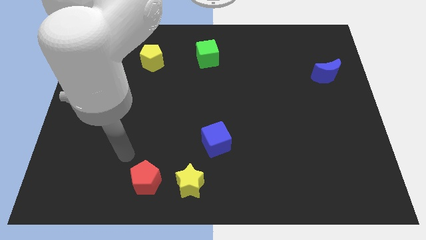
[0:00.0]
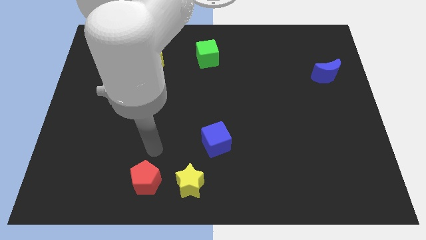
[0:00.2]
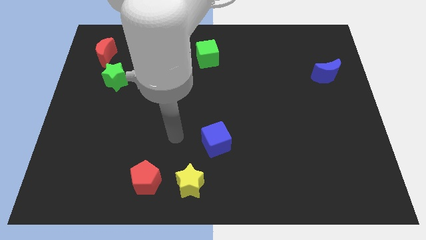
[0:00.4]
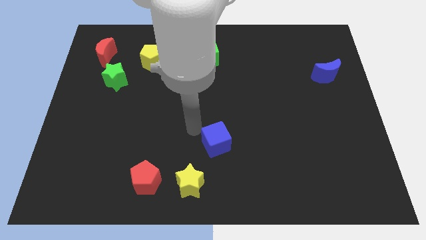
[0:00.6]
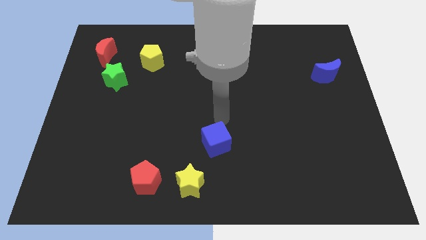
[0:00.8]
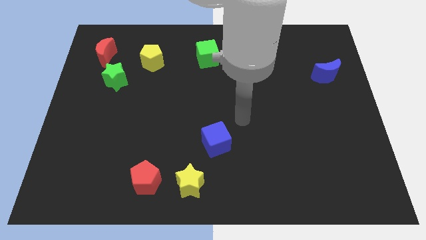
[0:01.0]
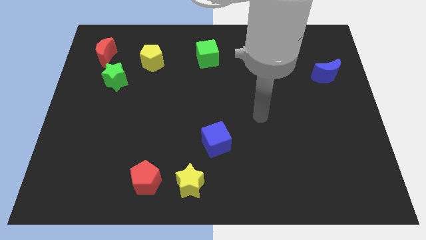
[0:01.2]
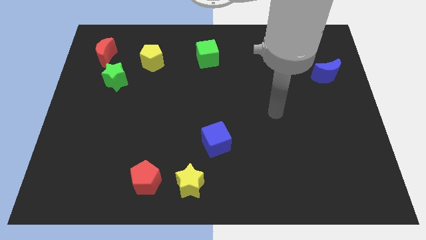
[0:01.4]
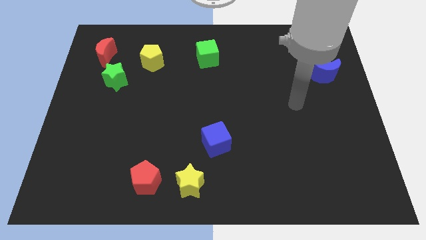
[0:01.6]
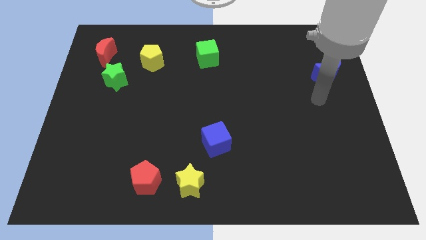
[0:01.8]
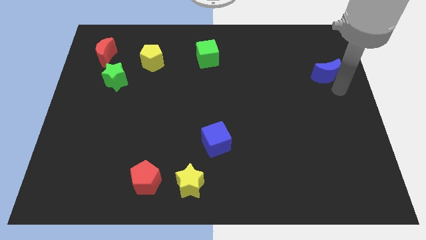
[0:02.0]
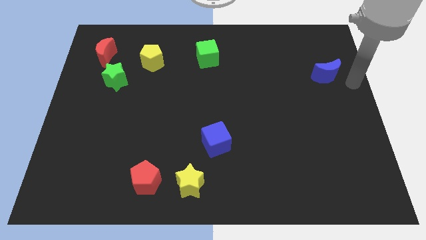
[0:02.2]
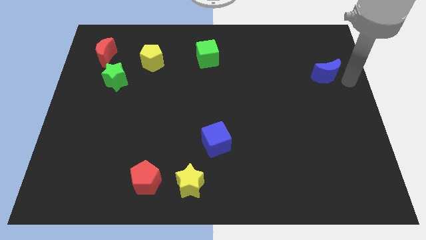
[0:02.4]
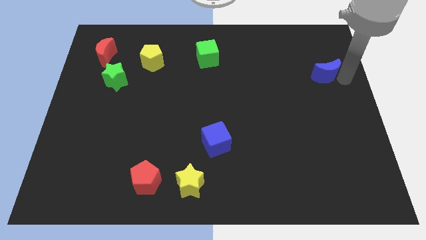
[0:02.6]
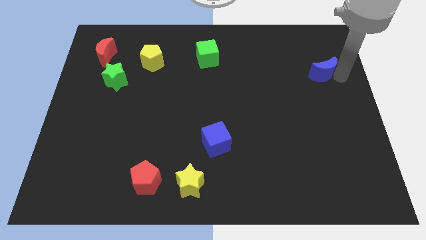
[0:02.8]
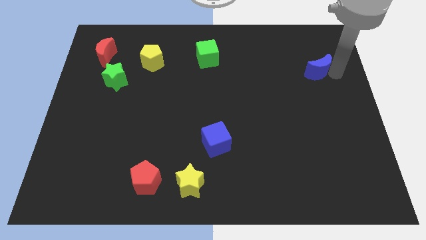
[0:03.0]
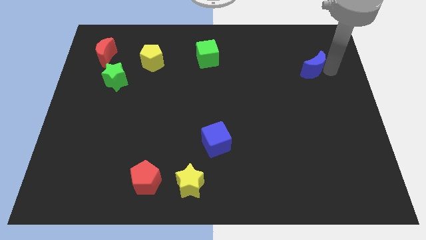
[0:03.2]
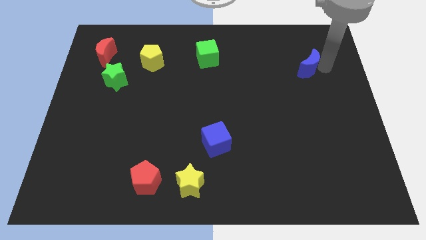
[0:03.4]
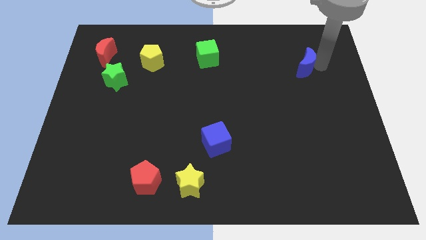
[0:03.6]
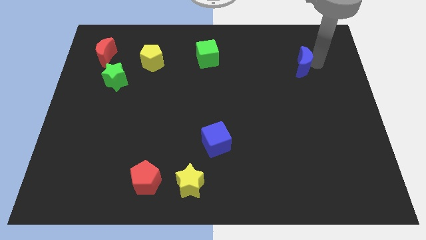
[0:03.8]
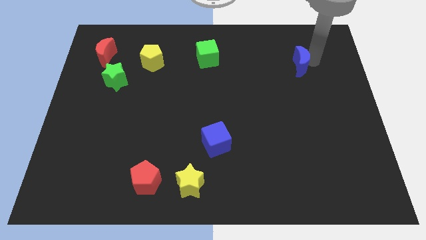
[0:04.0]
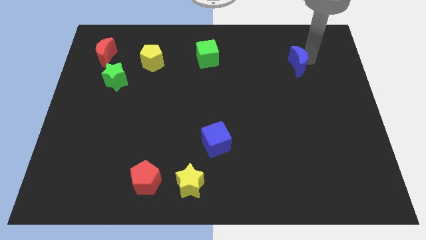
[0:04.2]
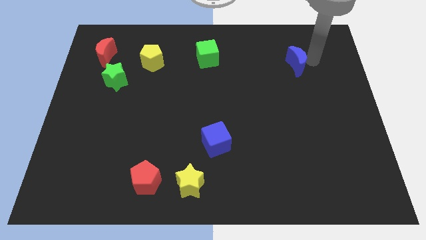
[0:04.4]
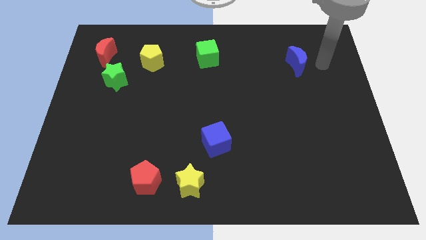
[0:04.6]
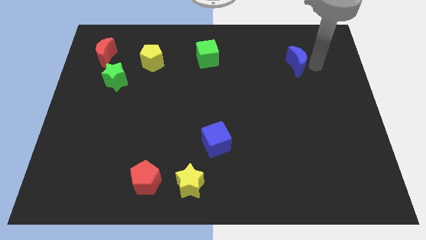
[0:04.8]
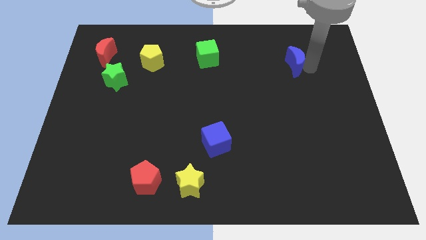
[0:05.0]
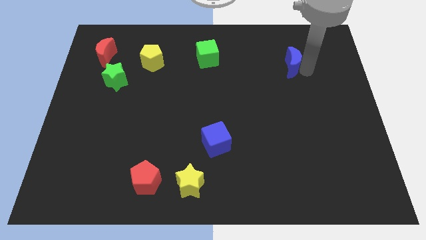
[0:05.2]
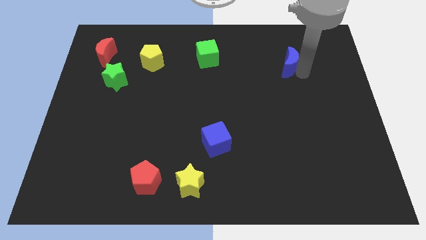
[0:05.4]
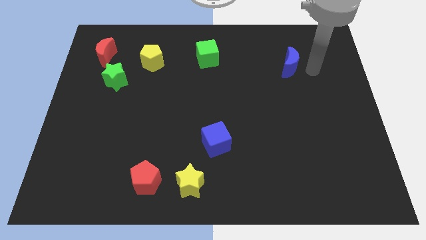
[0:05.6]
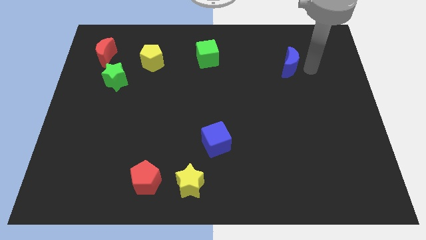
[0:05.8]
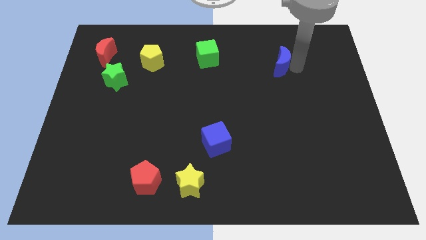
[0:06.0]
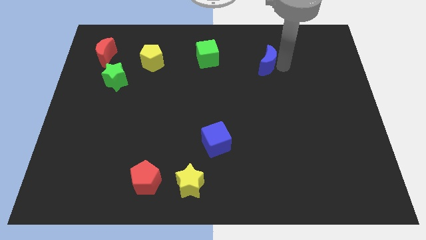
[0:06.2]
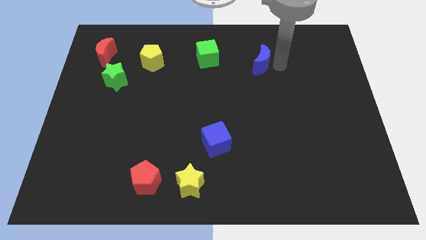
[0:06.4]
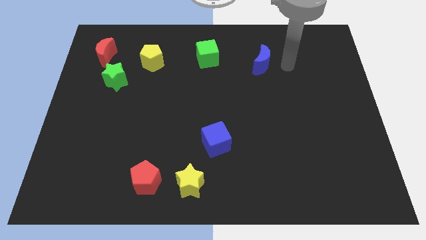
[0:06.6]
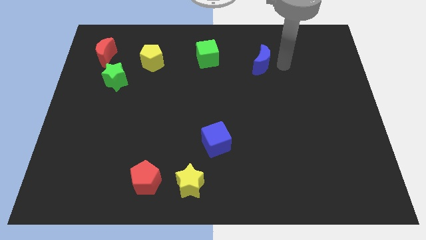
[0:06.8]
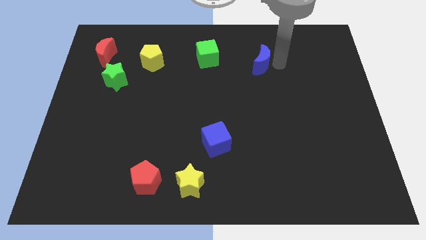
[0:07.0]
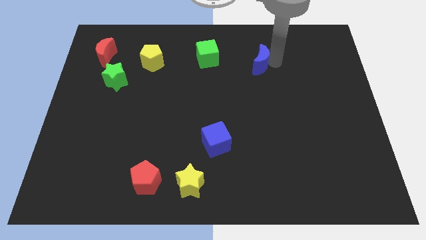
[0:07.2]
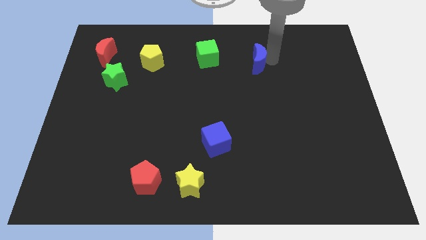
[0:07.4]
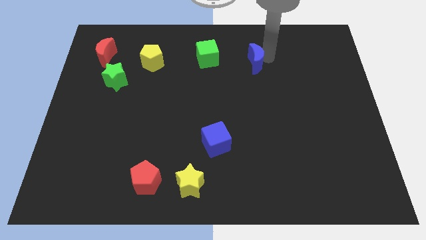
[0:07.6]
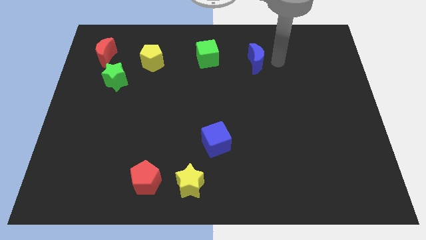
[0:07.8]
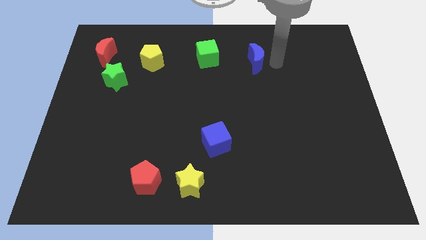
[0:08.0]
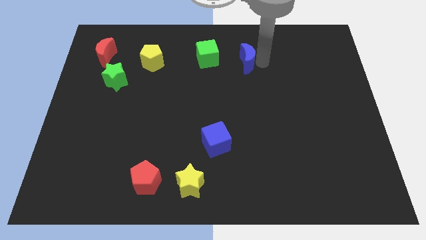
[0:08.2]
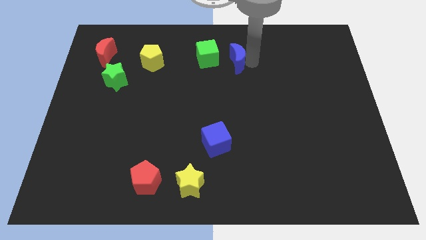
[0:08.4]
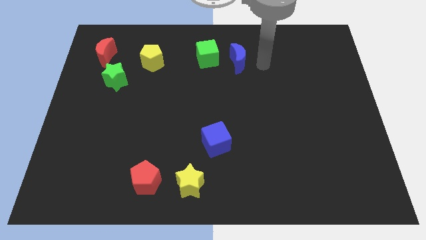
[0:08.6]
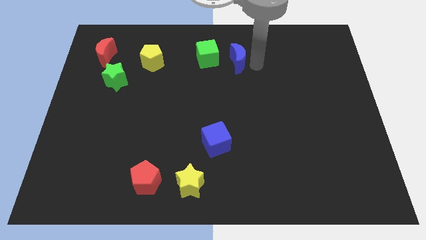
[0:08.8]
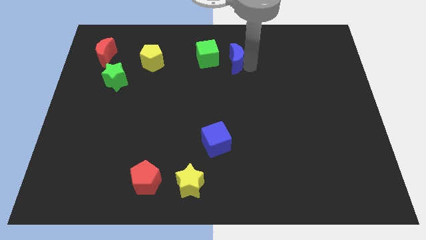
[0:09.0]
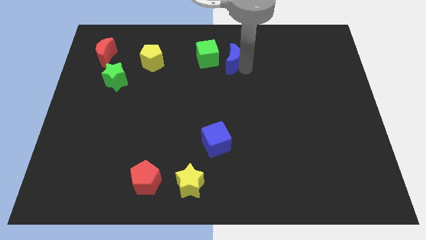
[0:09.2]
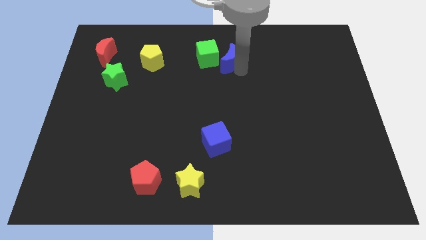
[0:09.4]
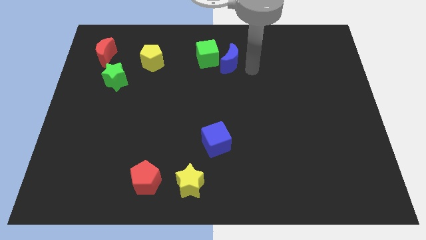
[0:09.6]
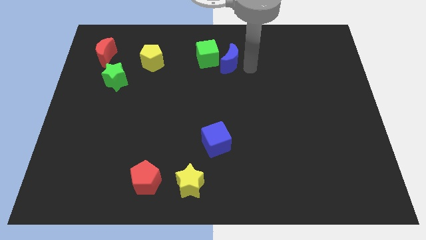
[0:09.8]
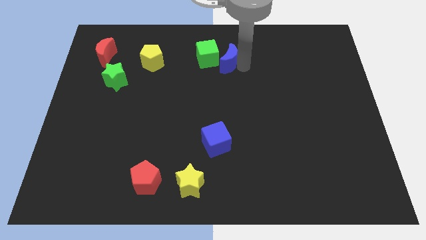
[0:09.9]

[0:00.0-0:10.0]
push the blue moon towards the green cube

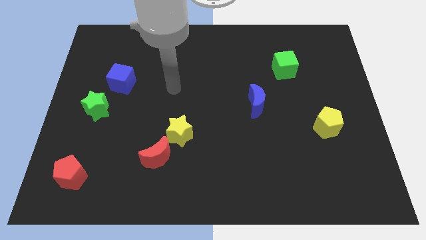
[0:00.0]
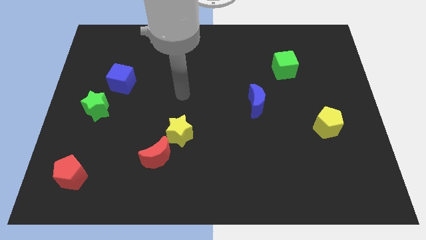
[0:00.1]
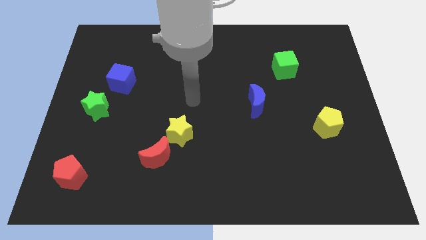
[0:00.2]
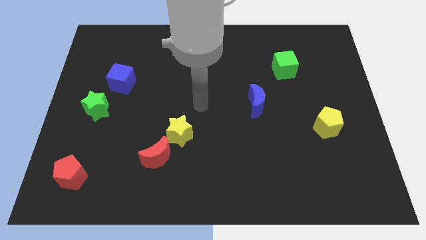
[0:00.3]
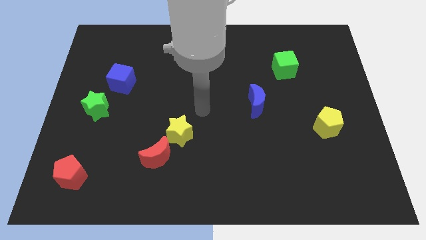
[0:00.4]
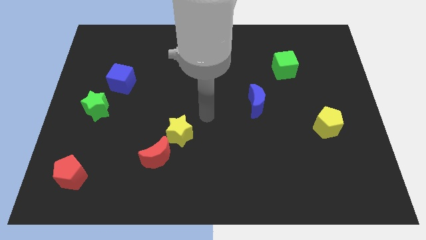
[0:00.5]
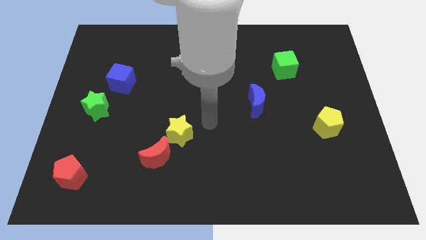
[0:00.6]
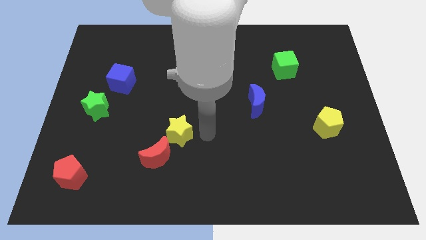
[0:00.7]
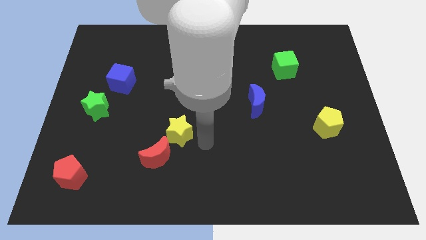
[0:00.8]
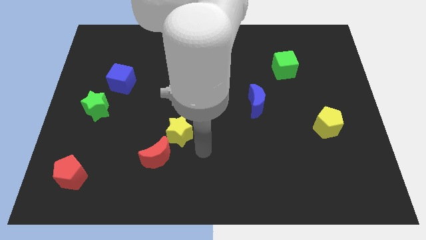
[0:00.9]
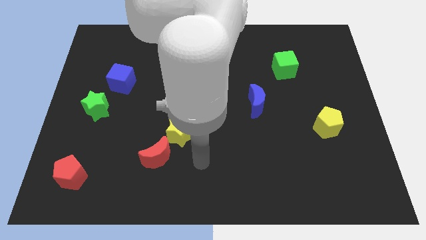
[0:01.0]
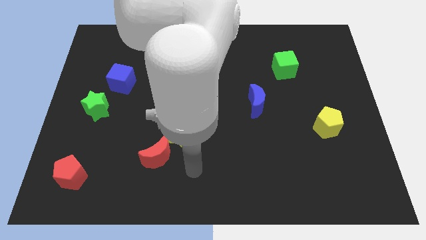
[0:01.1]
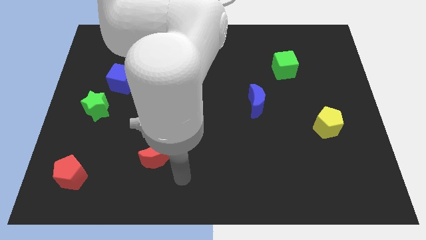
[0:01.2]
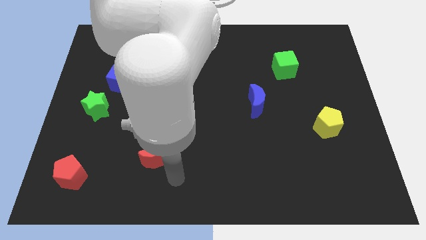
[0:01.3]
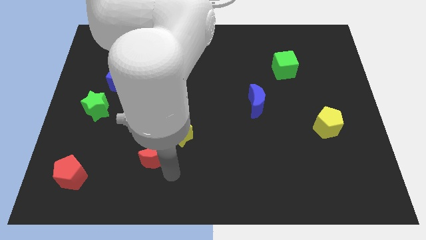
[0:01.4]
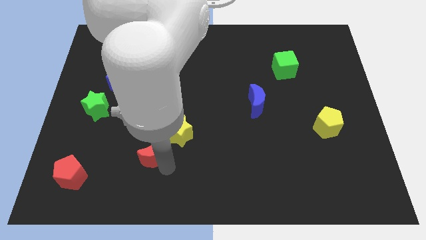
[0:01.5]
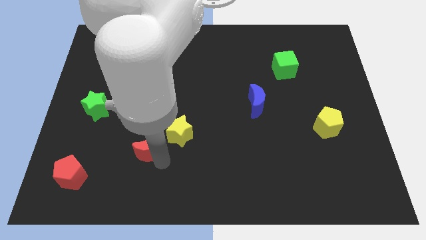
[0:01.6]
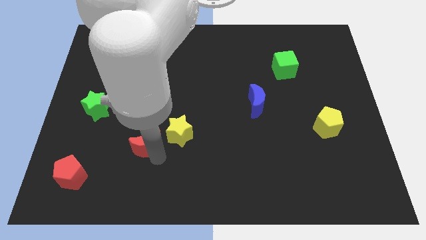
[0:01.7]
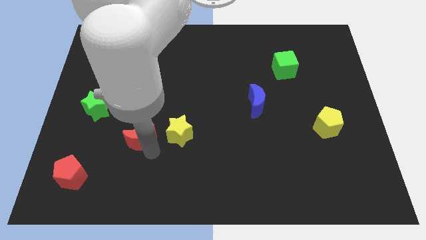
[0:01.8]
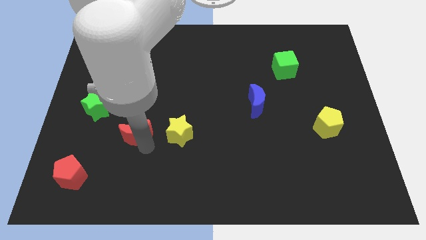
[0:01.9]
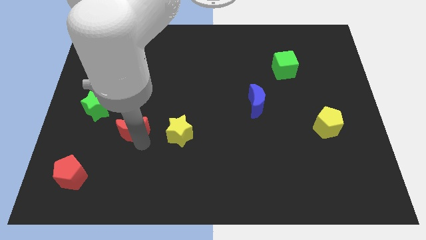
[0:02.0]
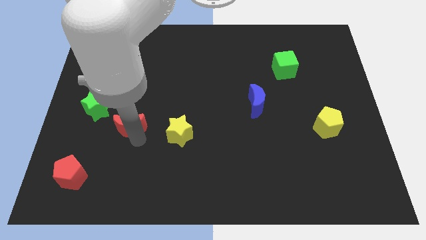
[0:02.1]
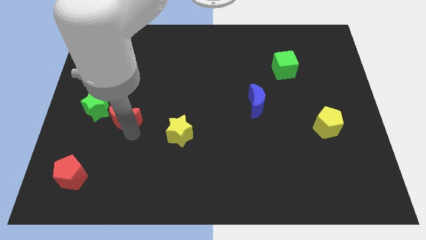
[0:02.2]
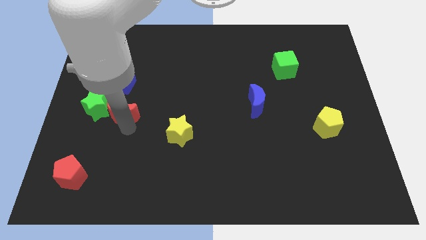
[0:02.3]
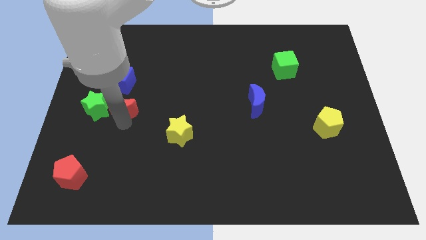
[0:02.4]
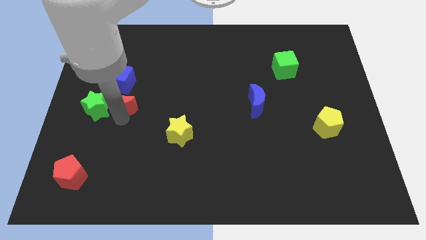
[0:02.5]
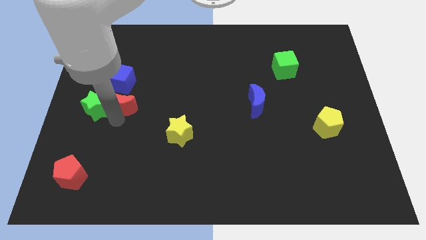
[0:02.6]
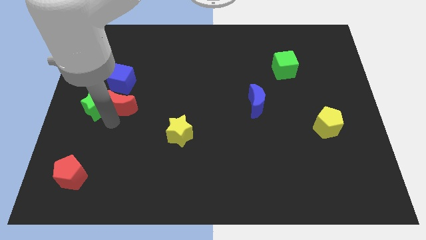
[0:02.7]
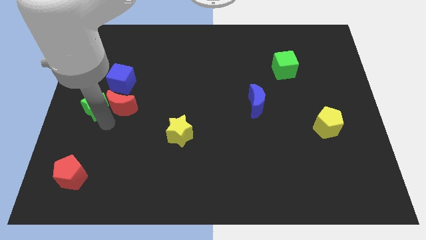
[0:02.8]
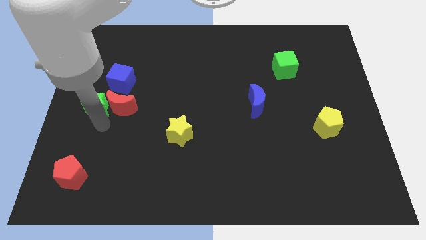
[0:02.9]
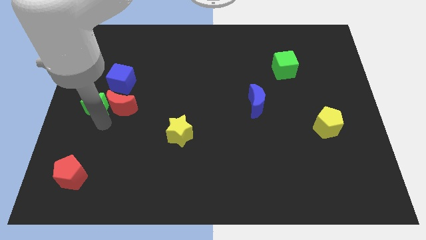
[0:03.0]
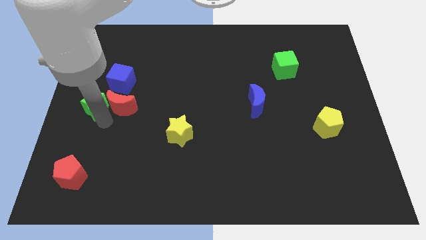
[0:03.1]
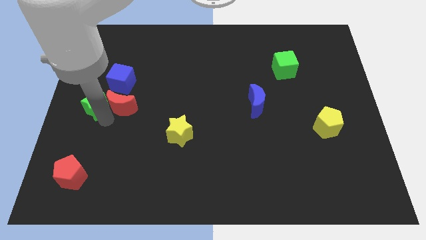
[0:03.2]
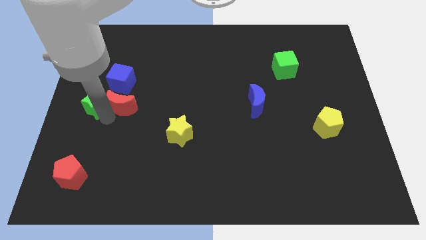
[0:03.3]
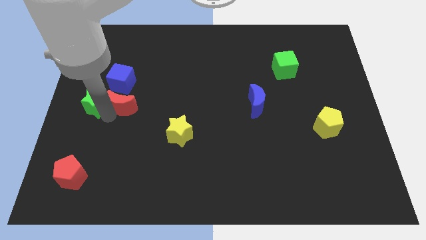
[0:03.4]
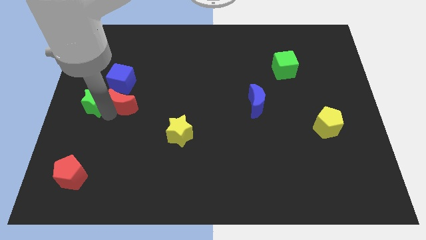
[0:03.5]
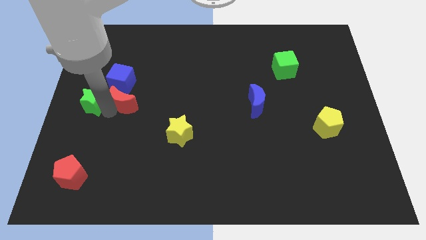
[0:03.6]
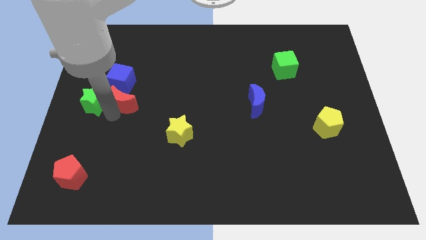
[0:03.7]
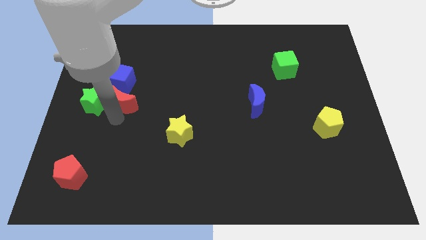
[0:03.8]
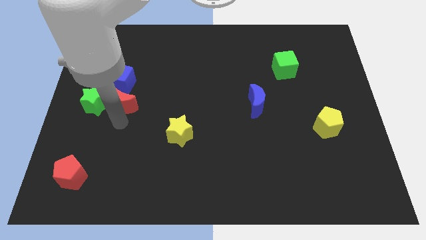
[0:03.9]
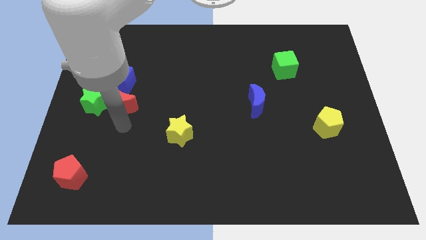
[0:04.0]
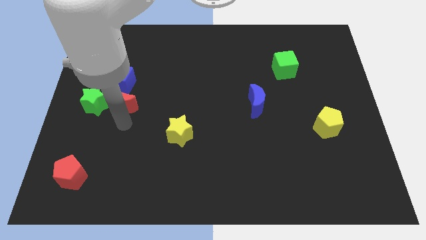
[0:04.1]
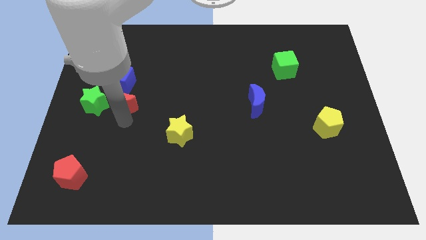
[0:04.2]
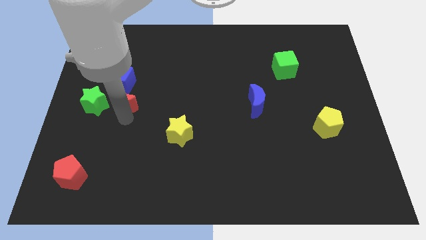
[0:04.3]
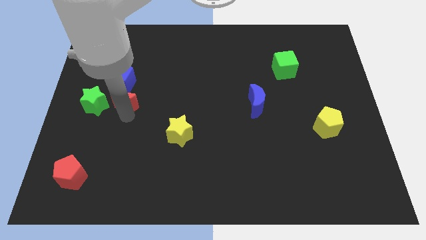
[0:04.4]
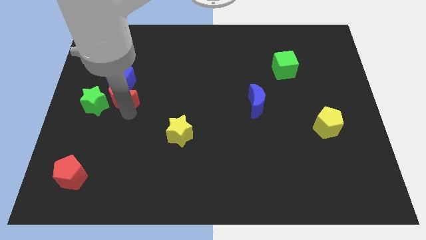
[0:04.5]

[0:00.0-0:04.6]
move the red moon towards the blue cube
